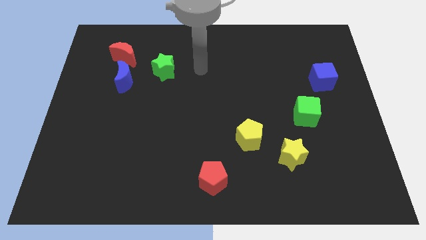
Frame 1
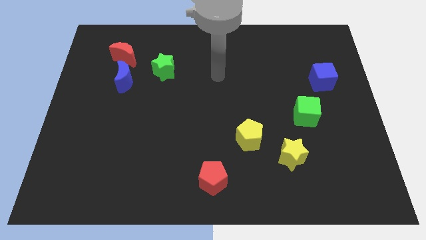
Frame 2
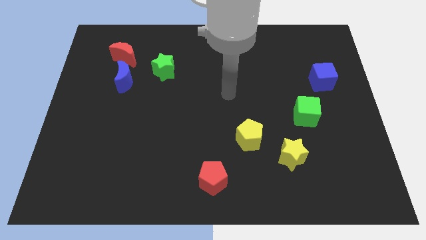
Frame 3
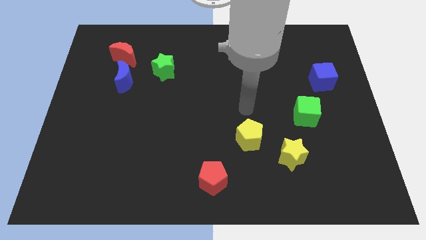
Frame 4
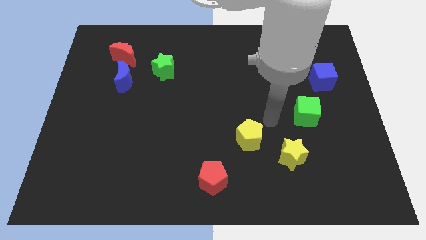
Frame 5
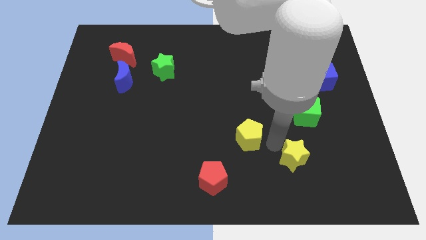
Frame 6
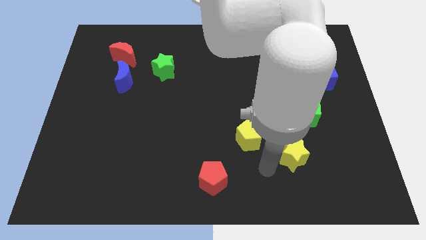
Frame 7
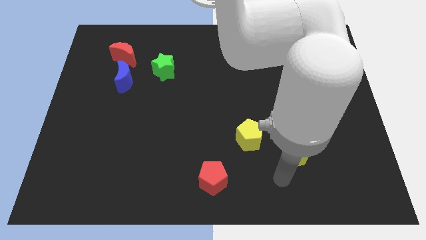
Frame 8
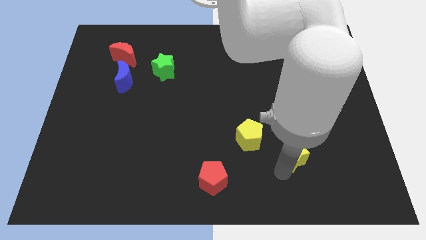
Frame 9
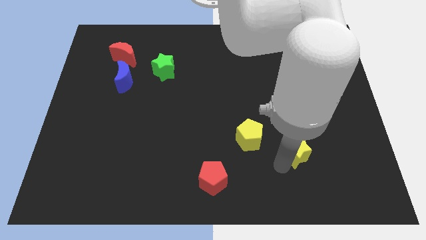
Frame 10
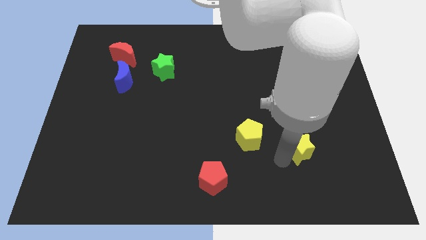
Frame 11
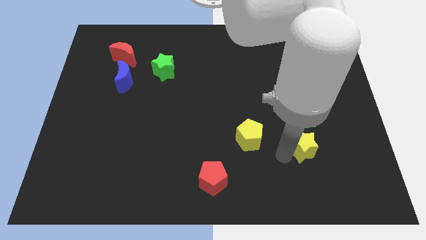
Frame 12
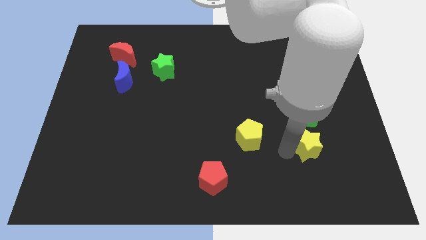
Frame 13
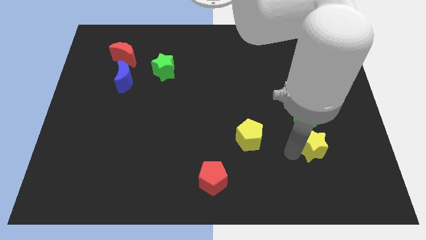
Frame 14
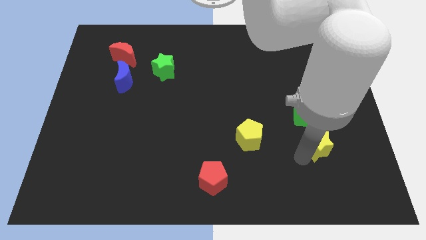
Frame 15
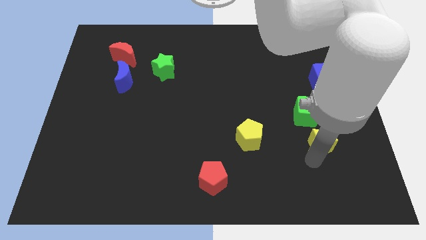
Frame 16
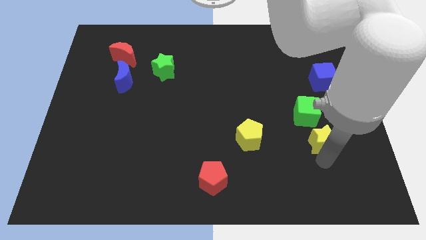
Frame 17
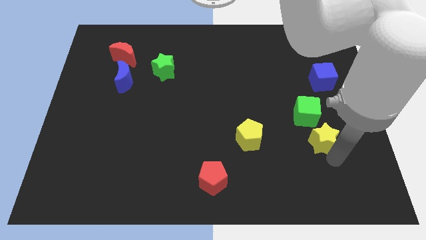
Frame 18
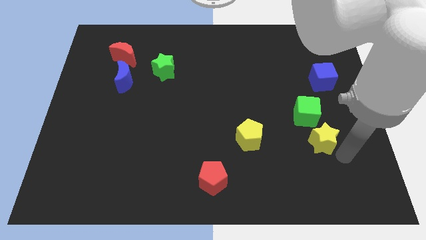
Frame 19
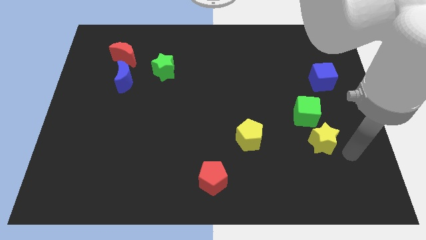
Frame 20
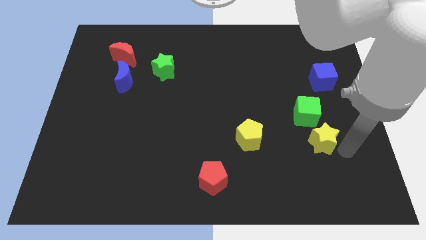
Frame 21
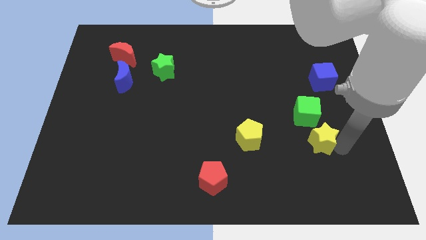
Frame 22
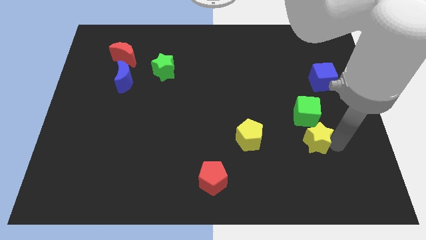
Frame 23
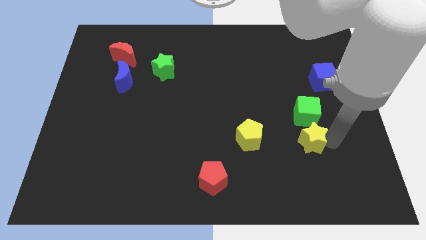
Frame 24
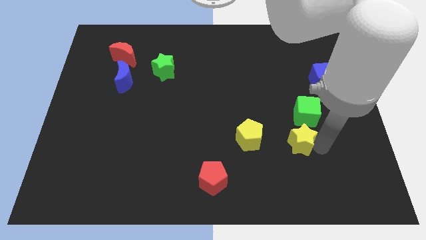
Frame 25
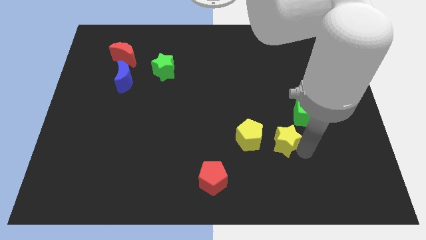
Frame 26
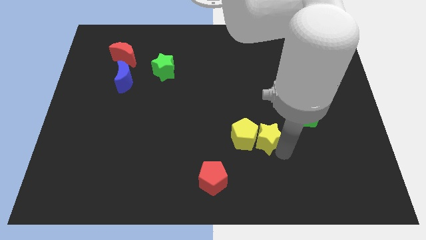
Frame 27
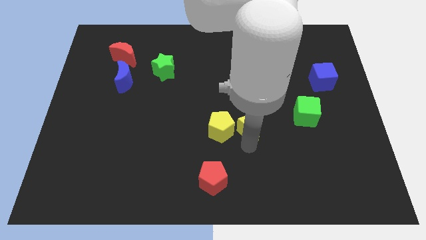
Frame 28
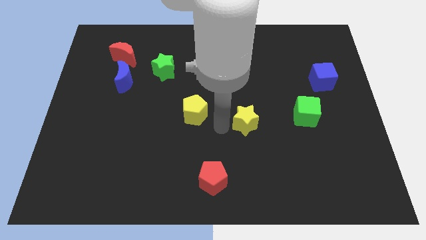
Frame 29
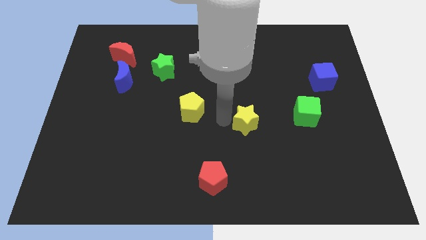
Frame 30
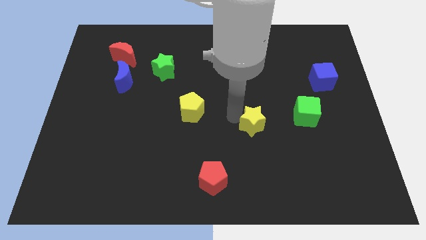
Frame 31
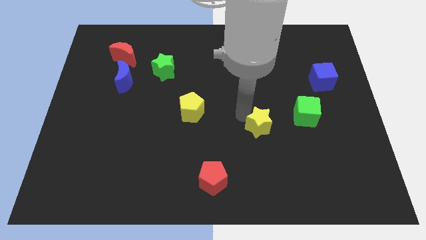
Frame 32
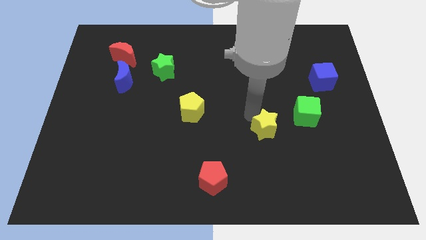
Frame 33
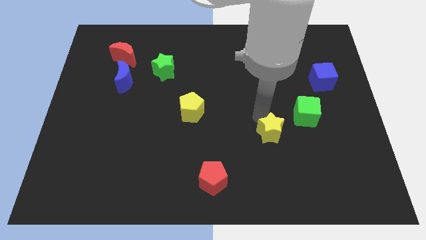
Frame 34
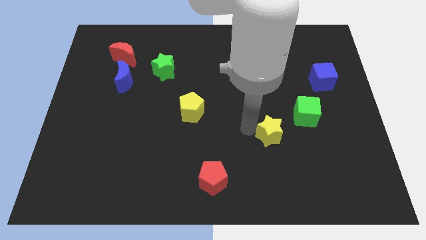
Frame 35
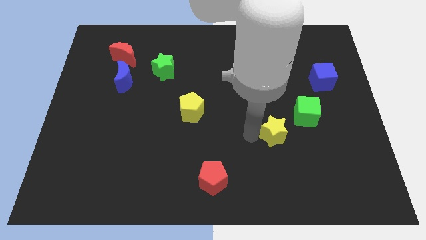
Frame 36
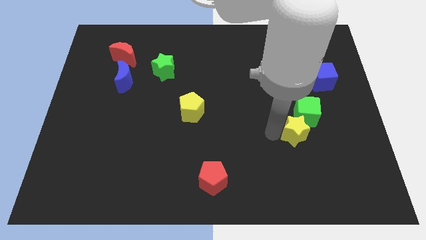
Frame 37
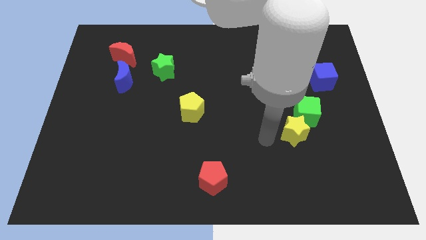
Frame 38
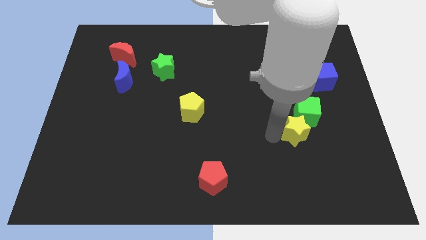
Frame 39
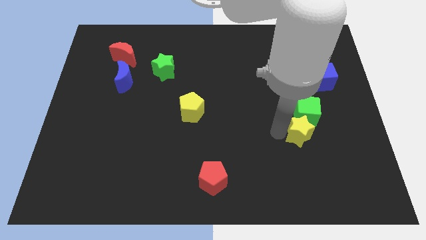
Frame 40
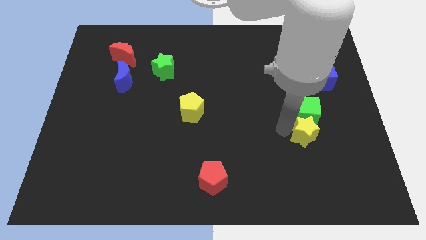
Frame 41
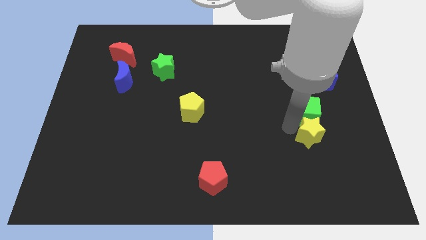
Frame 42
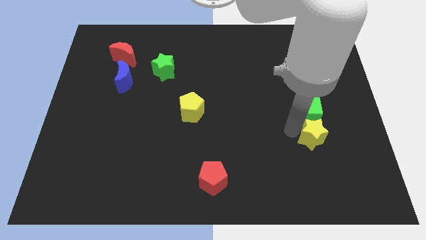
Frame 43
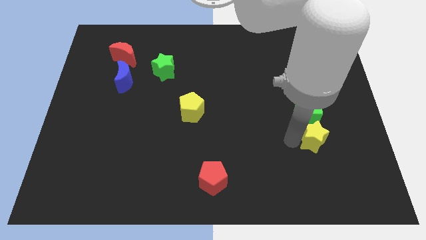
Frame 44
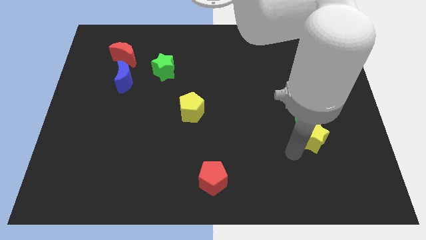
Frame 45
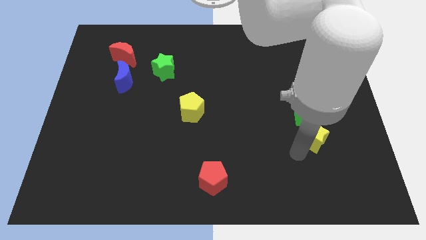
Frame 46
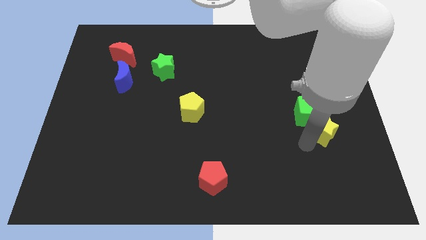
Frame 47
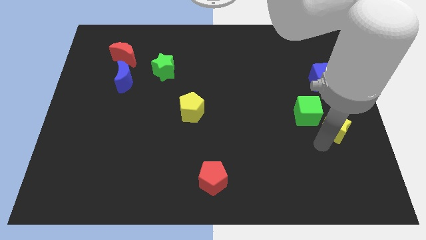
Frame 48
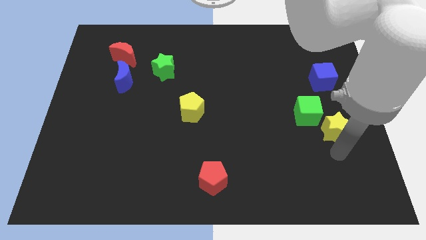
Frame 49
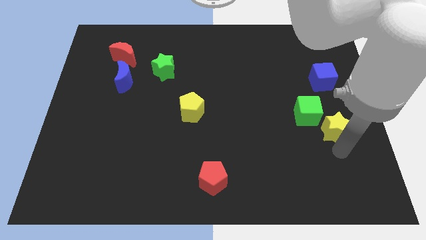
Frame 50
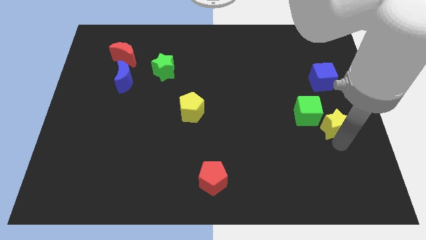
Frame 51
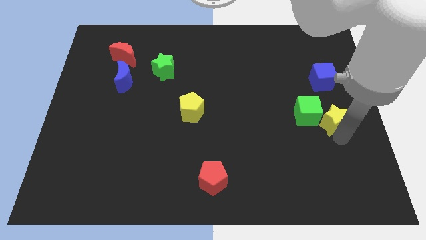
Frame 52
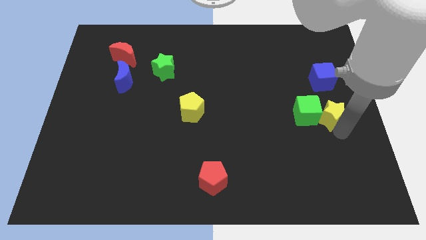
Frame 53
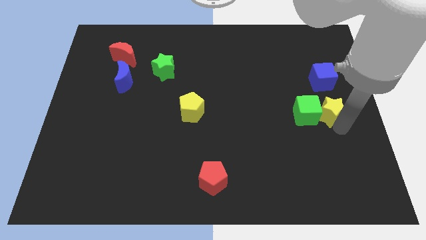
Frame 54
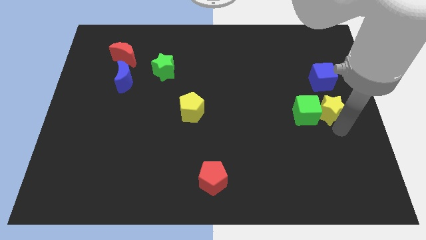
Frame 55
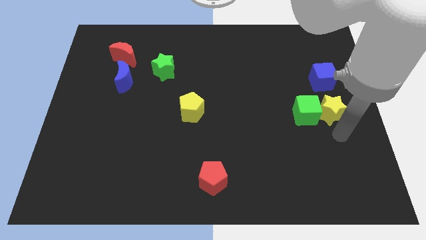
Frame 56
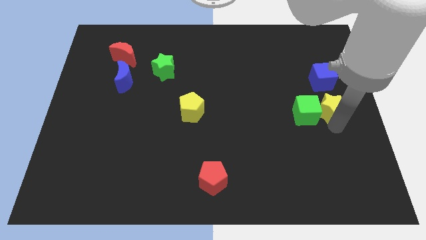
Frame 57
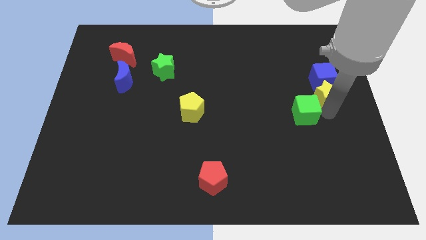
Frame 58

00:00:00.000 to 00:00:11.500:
move the yellow star close to the blue cube

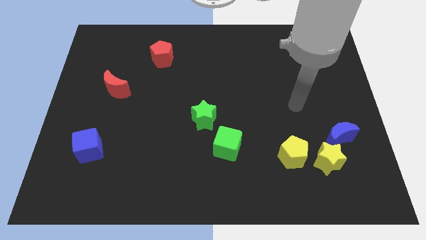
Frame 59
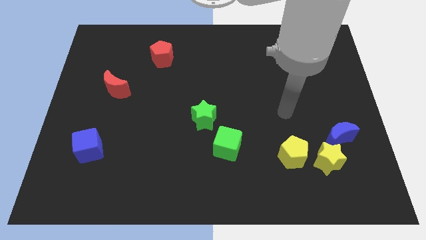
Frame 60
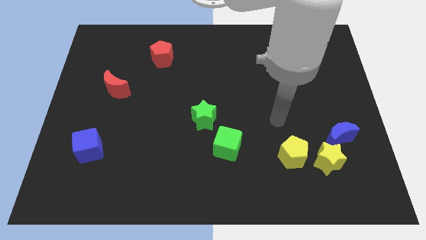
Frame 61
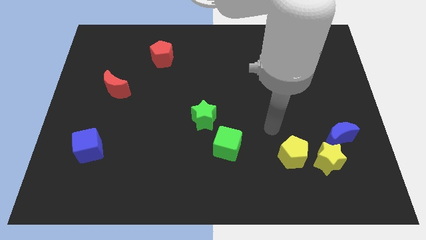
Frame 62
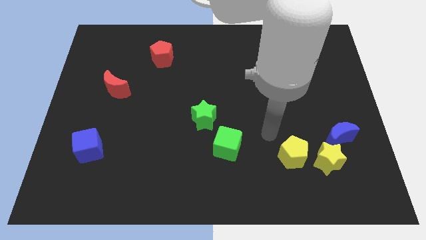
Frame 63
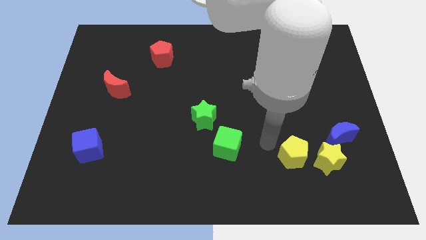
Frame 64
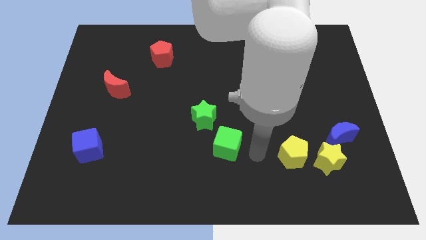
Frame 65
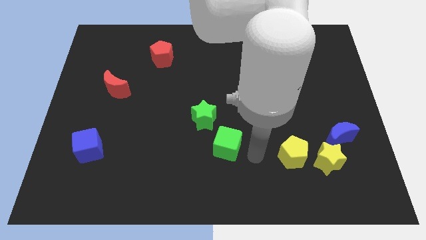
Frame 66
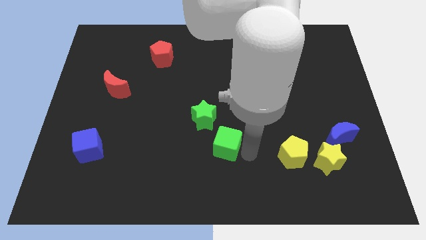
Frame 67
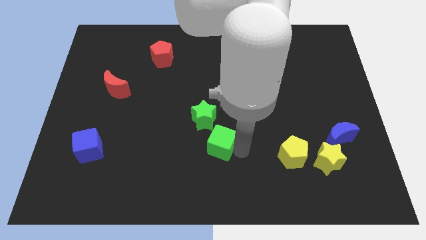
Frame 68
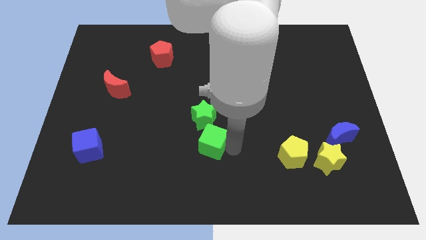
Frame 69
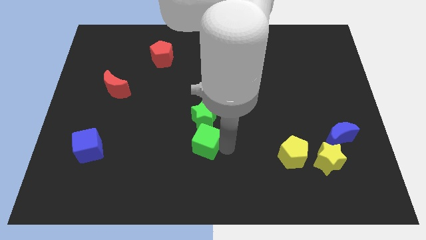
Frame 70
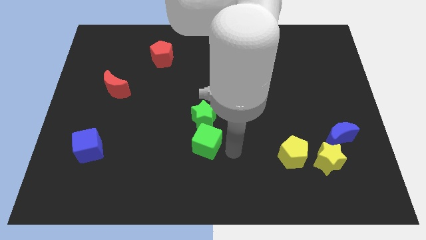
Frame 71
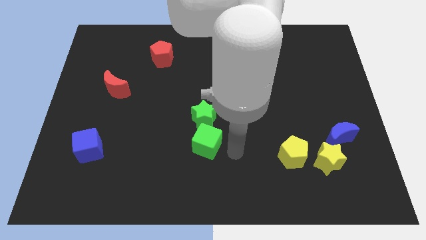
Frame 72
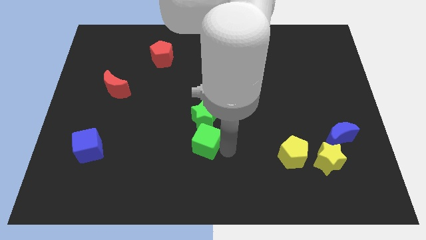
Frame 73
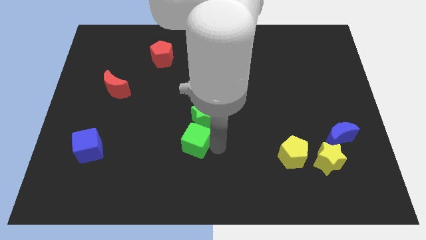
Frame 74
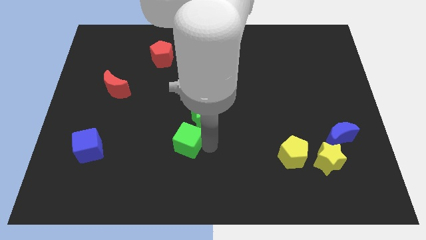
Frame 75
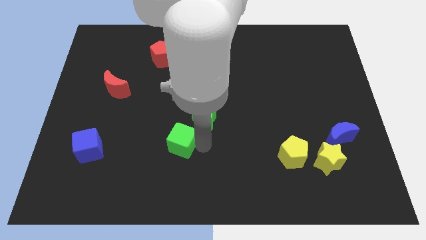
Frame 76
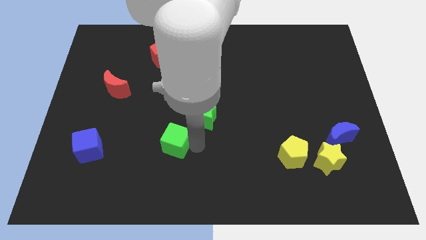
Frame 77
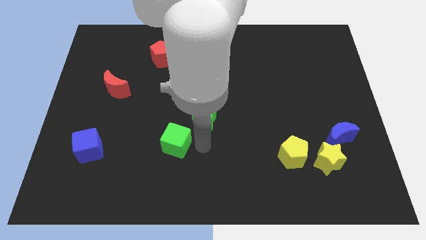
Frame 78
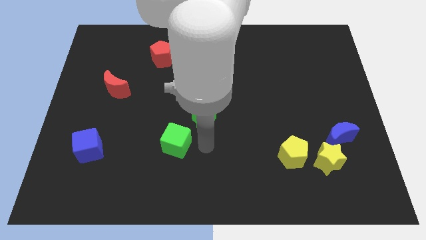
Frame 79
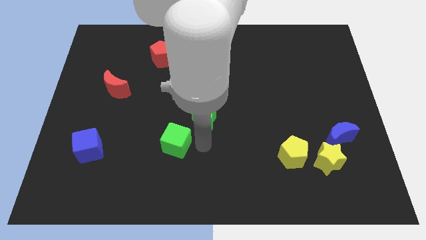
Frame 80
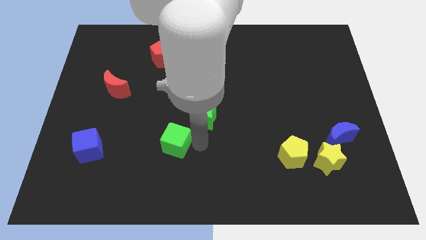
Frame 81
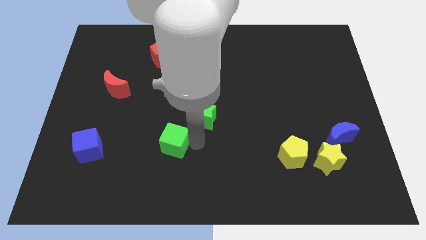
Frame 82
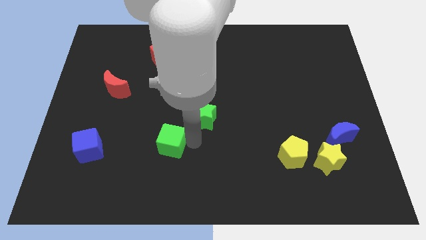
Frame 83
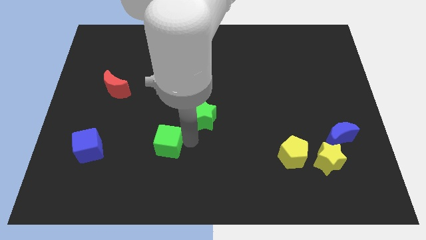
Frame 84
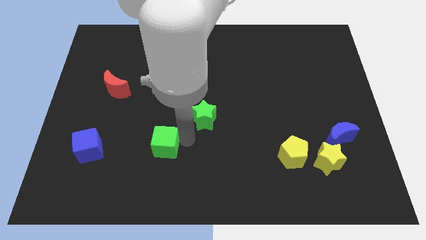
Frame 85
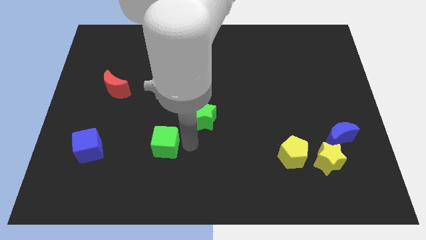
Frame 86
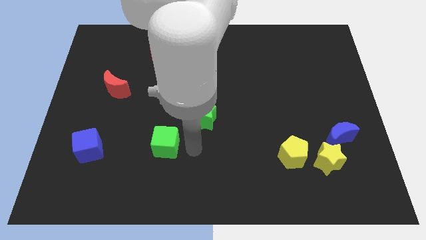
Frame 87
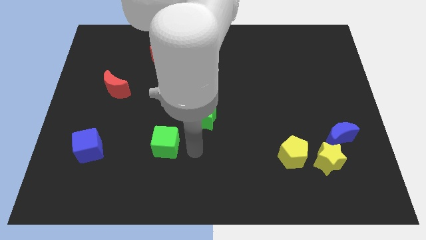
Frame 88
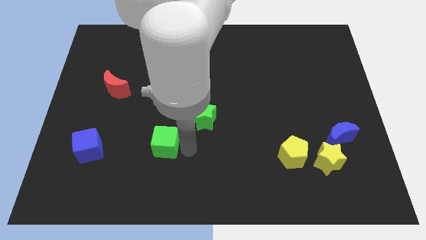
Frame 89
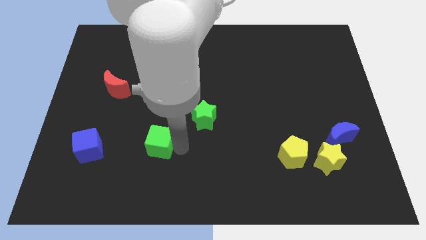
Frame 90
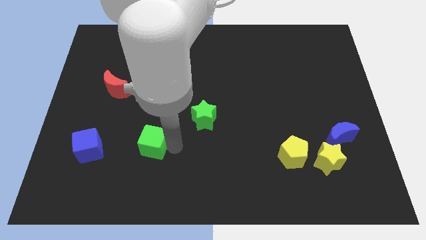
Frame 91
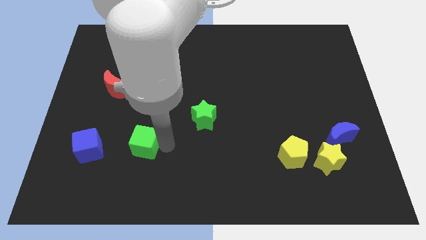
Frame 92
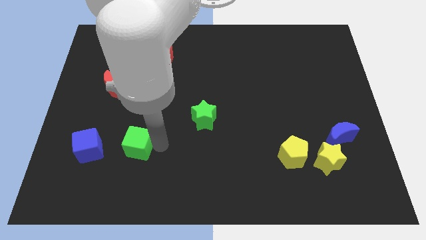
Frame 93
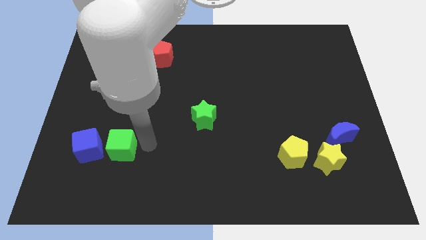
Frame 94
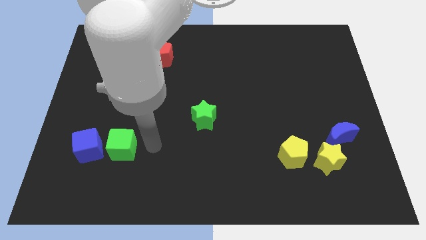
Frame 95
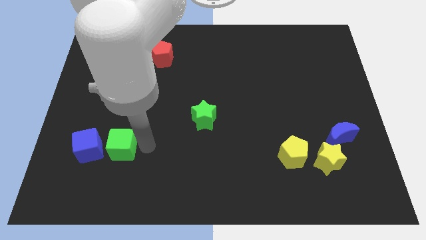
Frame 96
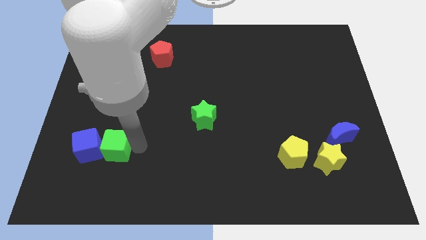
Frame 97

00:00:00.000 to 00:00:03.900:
move the green cube to the blue cube
